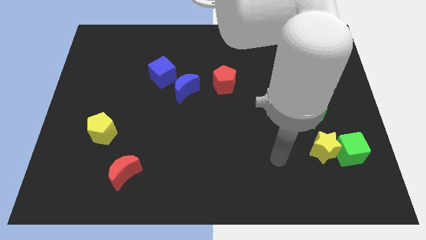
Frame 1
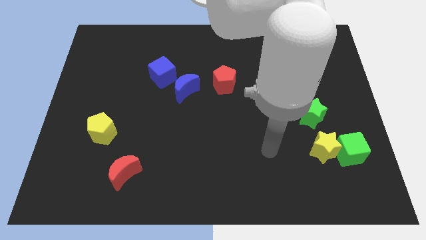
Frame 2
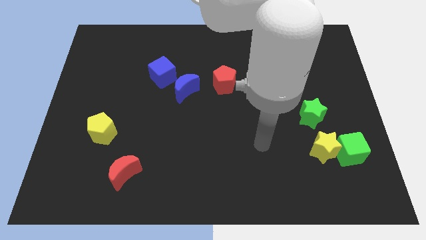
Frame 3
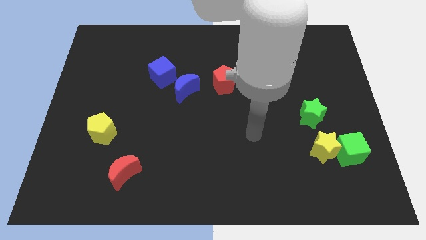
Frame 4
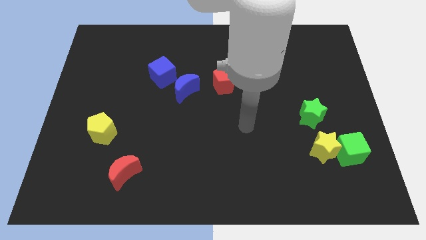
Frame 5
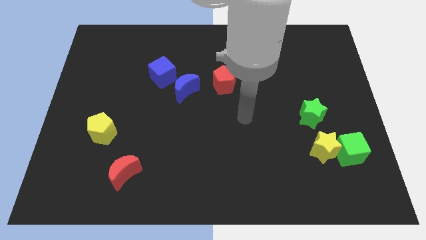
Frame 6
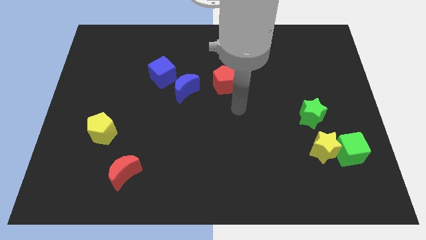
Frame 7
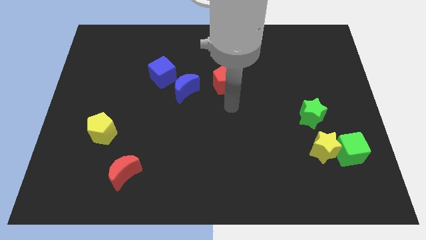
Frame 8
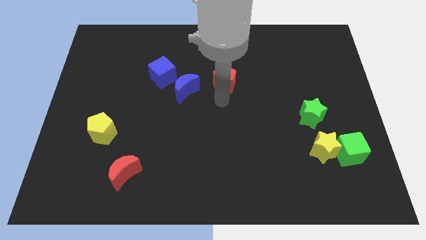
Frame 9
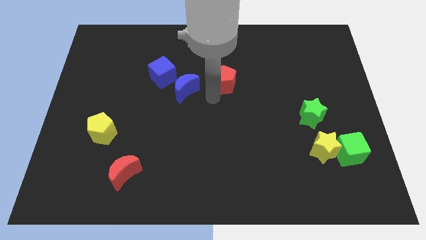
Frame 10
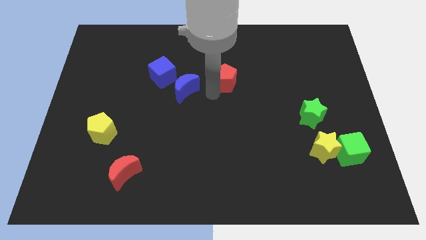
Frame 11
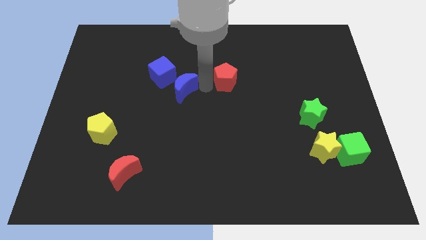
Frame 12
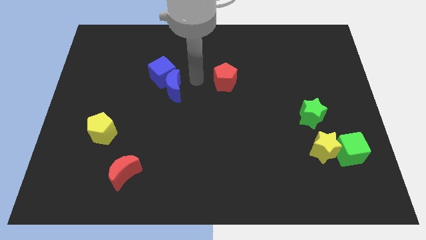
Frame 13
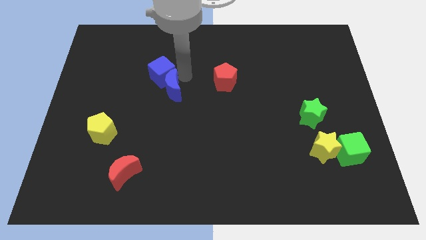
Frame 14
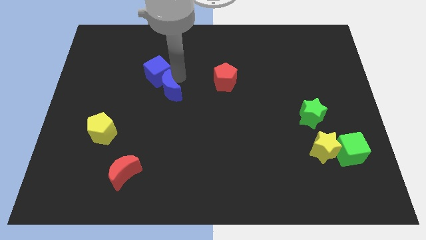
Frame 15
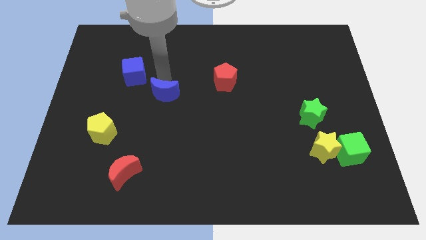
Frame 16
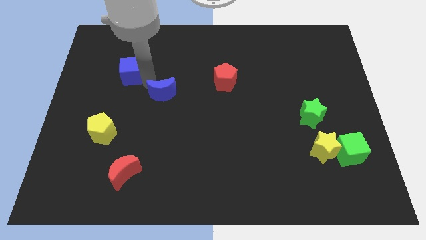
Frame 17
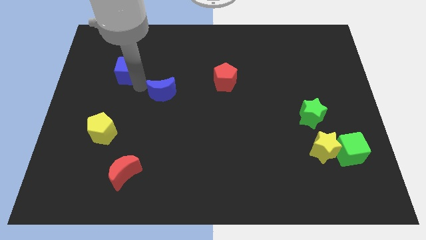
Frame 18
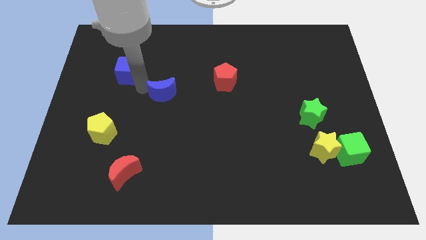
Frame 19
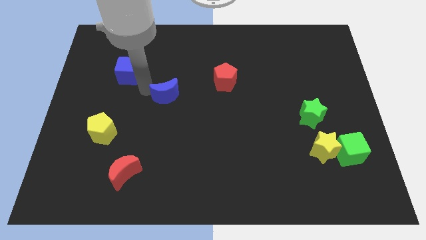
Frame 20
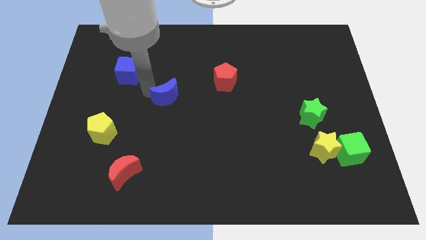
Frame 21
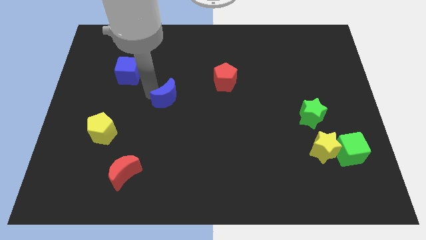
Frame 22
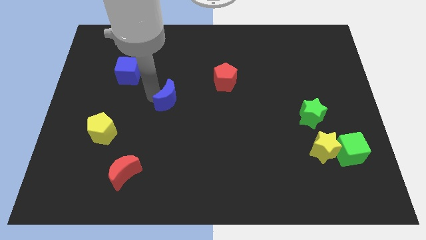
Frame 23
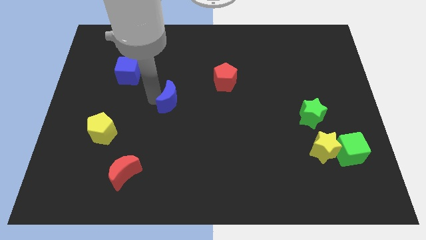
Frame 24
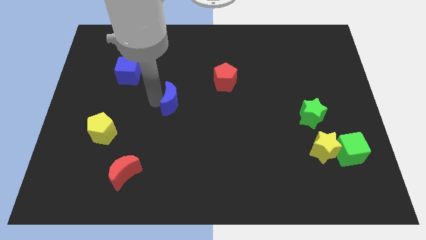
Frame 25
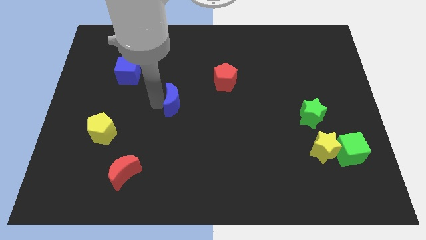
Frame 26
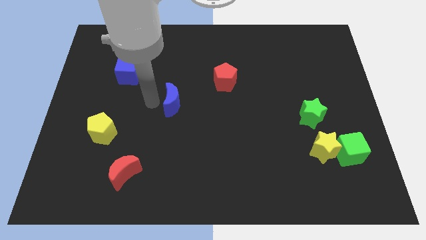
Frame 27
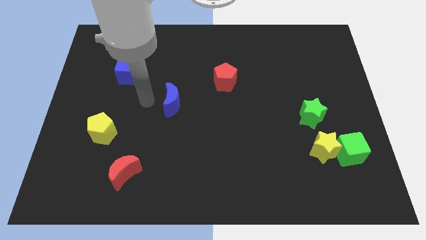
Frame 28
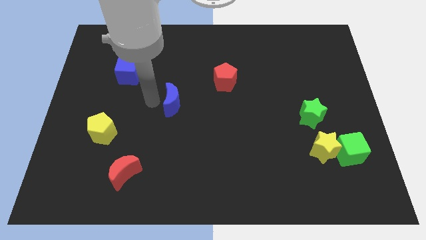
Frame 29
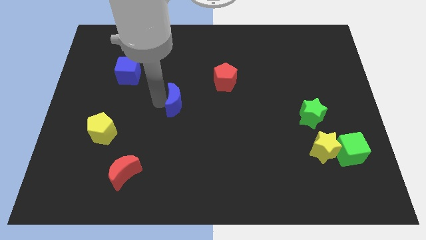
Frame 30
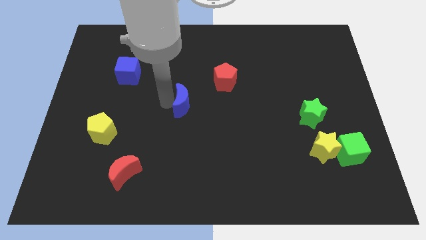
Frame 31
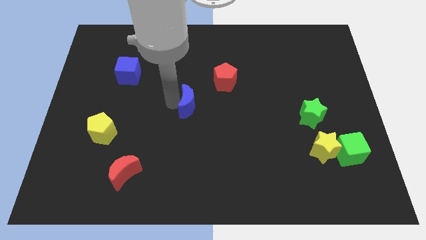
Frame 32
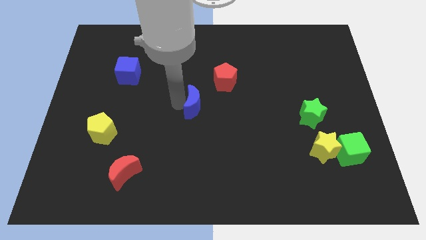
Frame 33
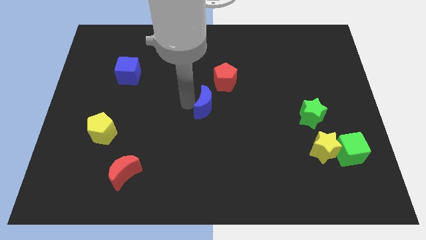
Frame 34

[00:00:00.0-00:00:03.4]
slightly push the blue moon down and right

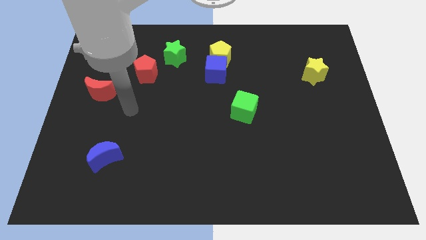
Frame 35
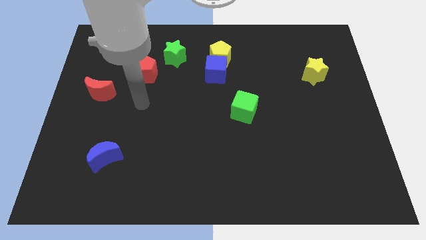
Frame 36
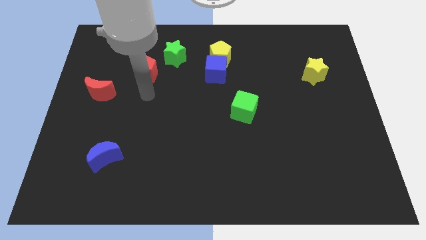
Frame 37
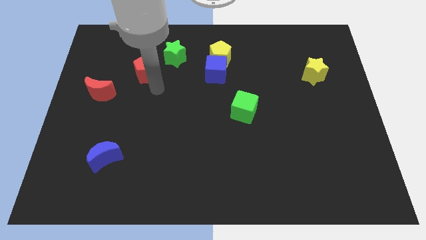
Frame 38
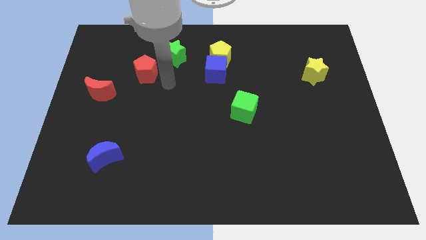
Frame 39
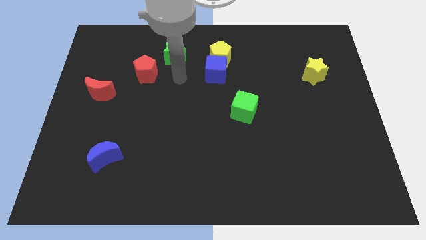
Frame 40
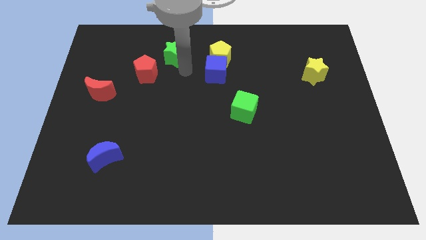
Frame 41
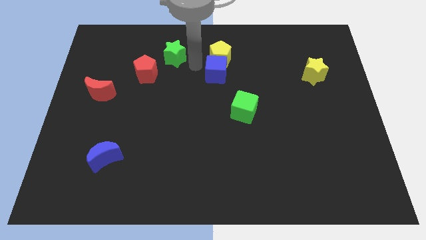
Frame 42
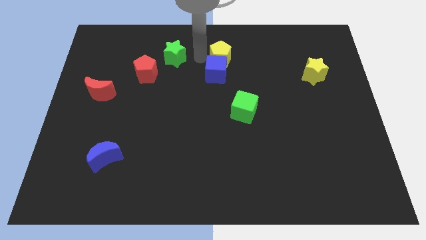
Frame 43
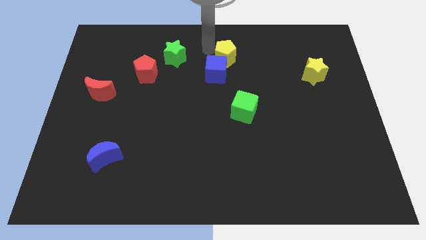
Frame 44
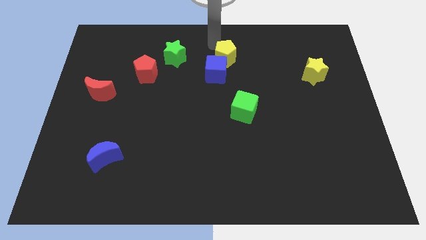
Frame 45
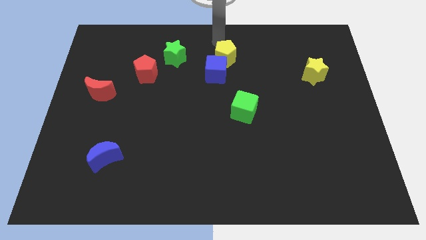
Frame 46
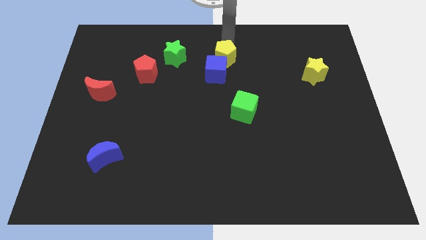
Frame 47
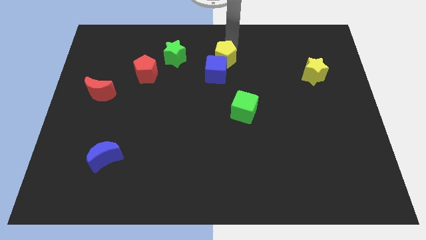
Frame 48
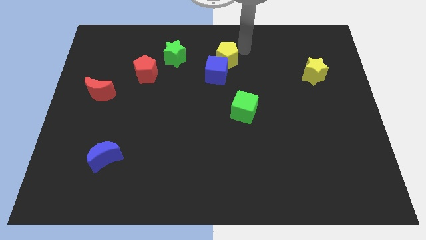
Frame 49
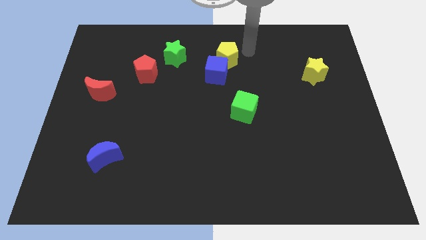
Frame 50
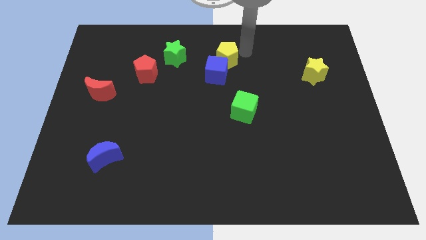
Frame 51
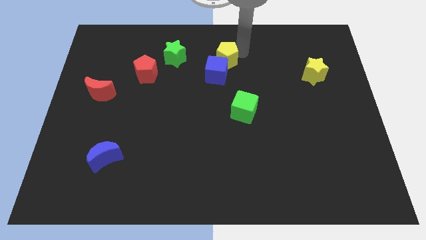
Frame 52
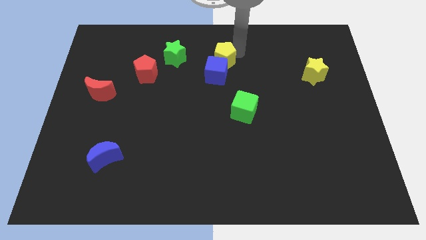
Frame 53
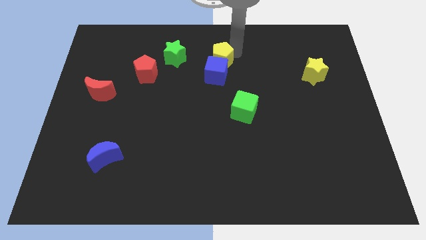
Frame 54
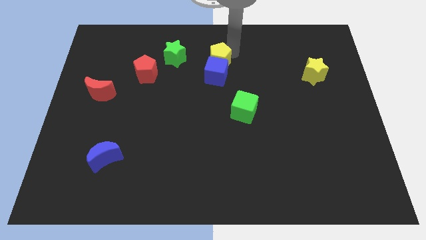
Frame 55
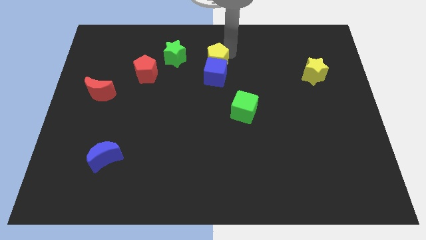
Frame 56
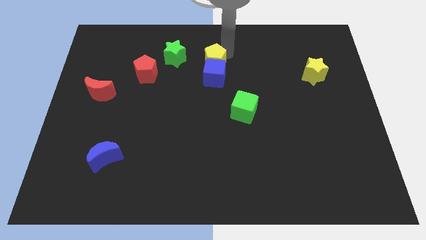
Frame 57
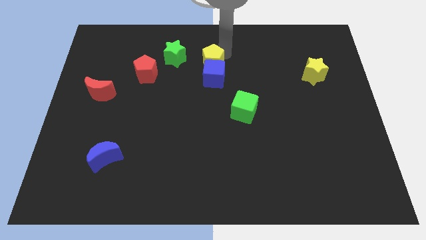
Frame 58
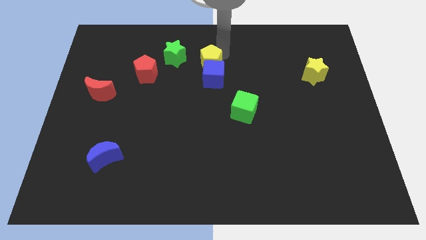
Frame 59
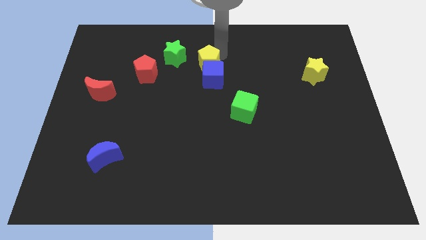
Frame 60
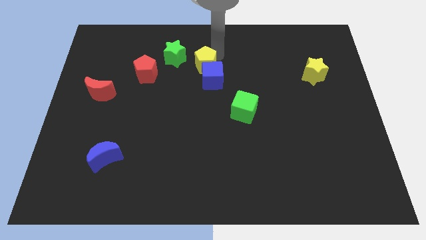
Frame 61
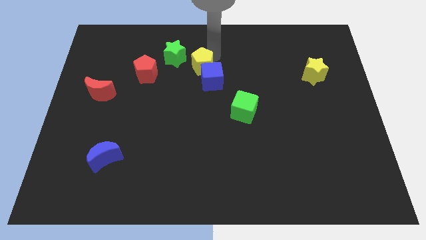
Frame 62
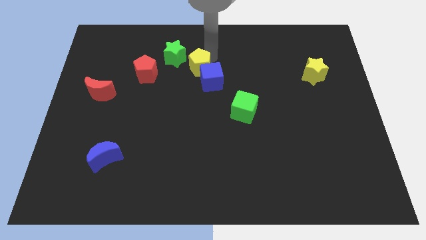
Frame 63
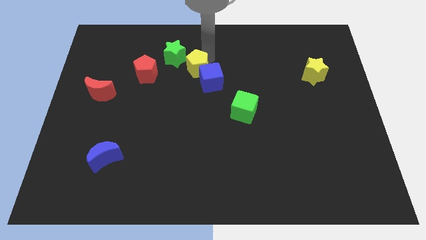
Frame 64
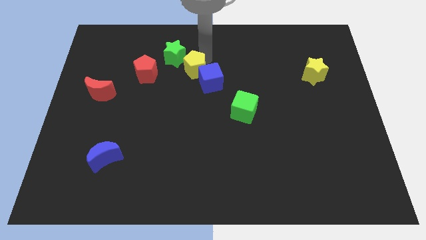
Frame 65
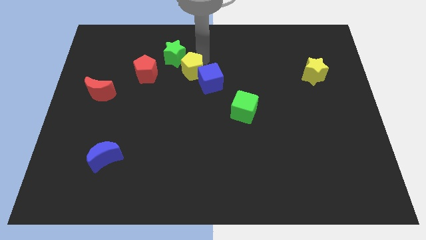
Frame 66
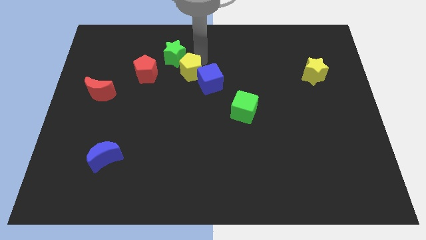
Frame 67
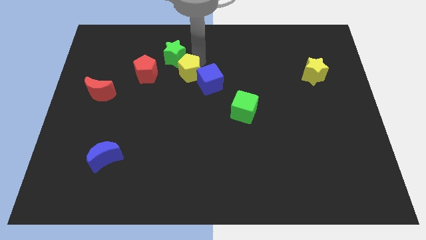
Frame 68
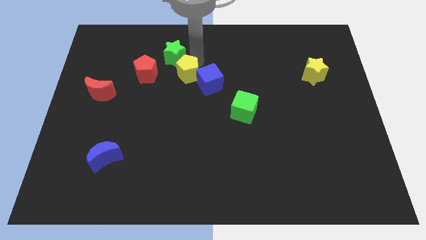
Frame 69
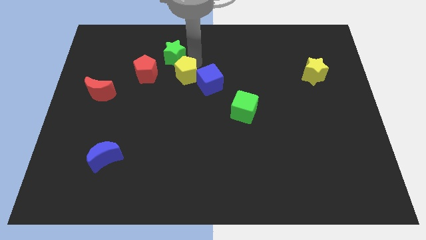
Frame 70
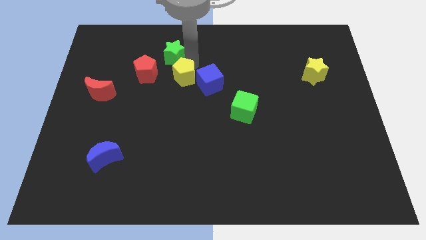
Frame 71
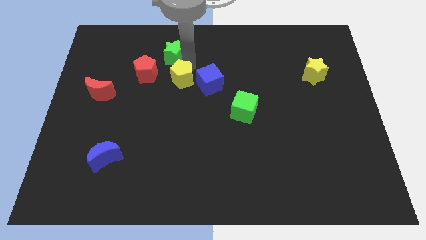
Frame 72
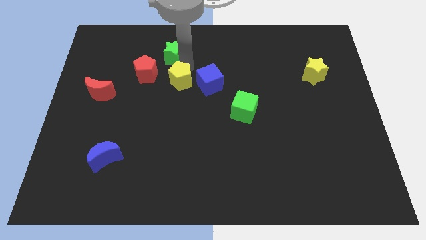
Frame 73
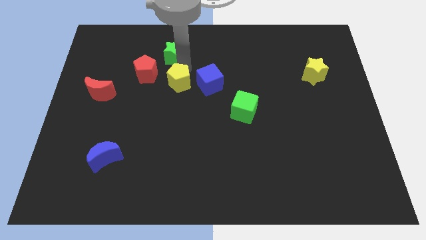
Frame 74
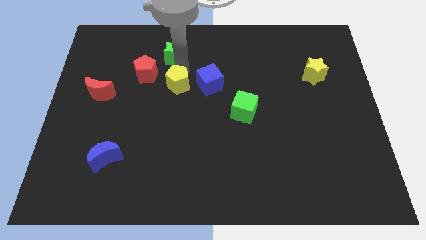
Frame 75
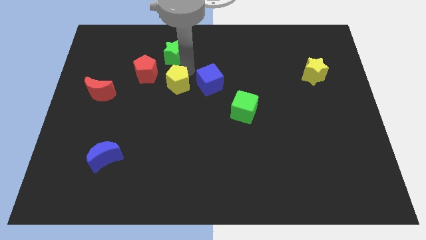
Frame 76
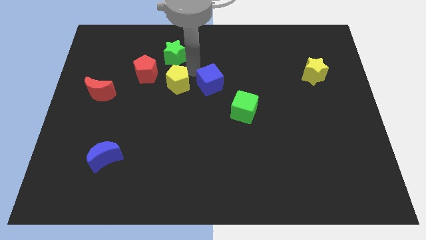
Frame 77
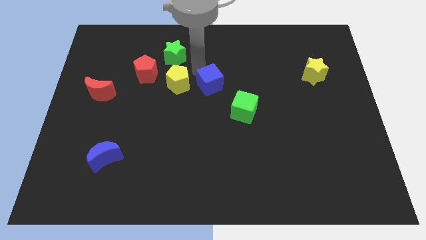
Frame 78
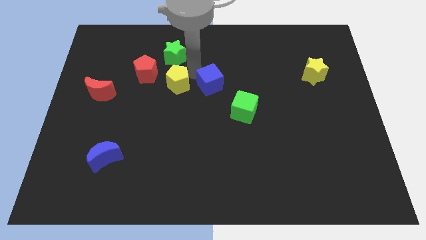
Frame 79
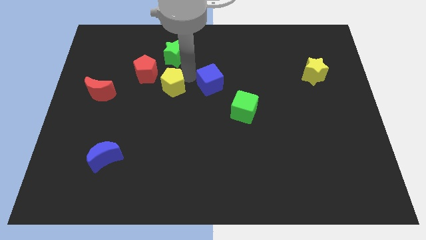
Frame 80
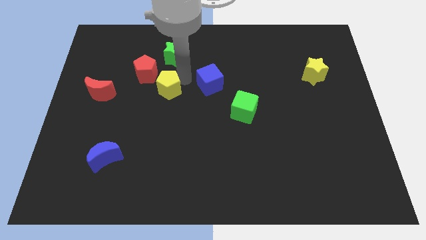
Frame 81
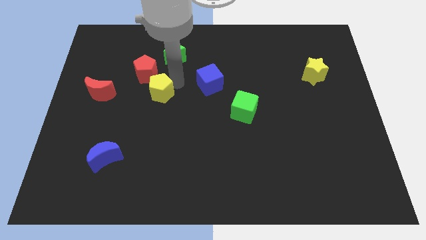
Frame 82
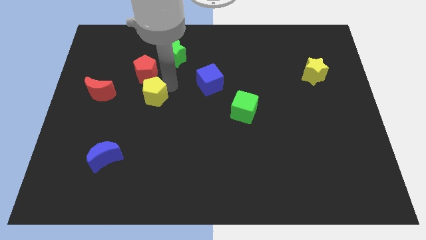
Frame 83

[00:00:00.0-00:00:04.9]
slide the yellow pentagon diagonally downwards and left
